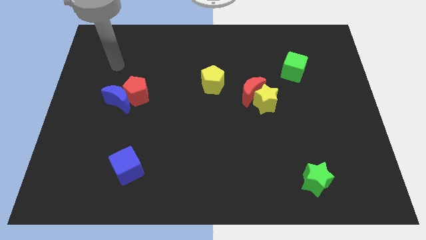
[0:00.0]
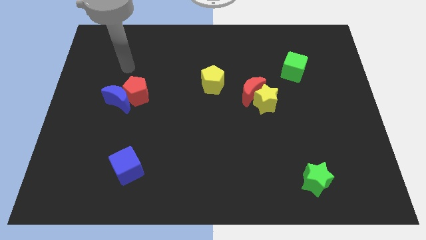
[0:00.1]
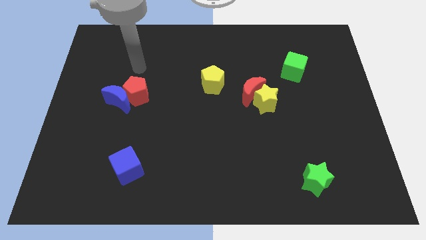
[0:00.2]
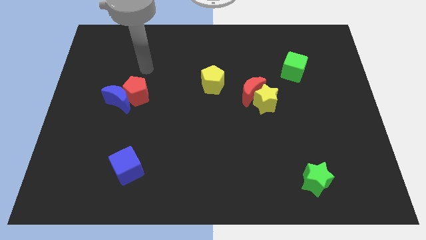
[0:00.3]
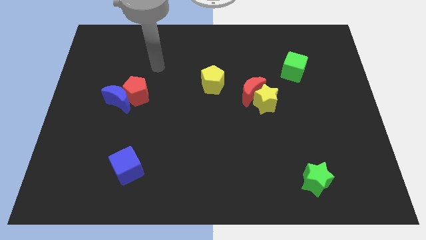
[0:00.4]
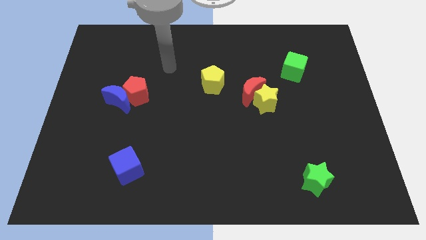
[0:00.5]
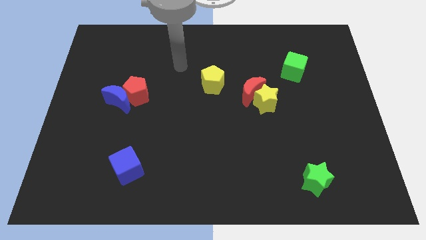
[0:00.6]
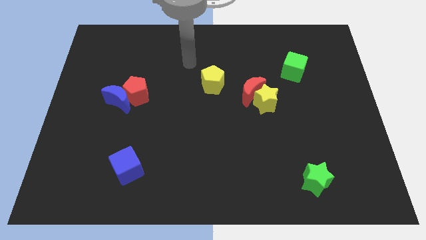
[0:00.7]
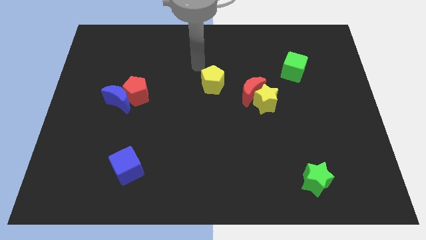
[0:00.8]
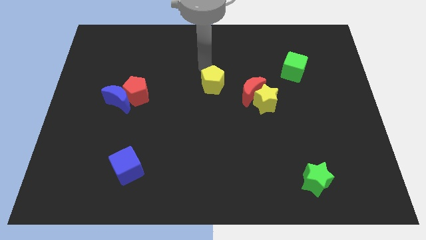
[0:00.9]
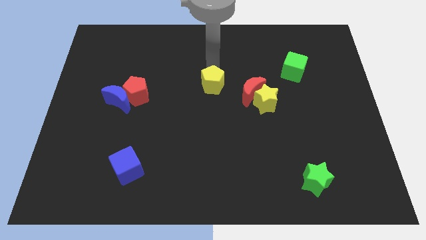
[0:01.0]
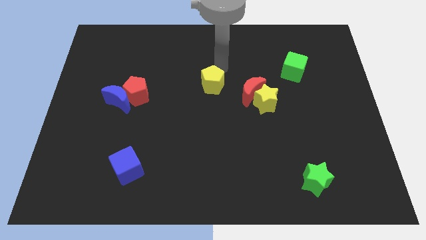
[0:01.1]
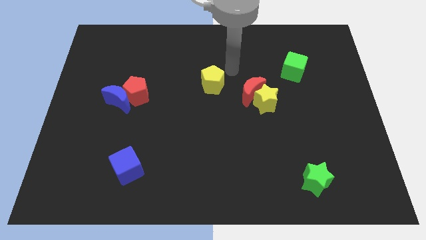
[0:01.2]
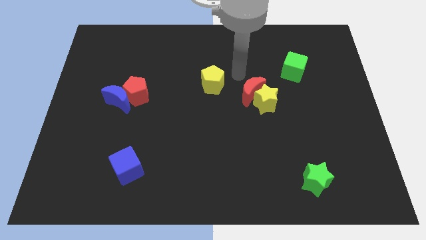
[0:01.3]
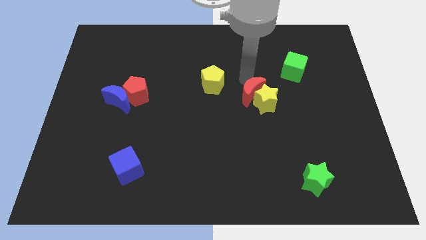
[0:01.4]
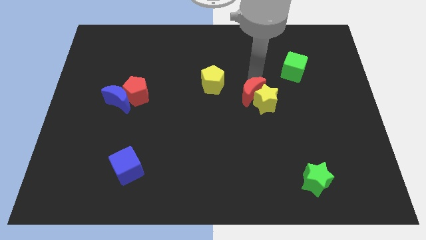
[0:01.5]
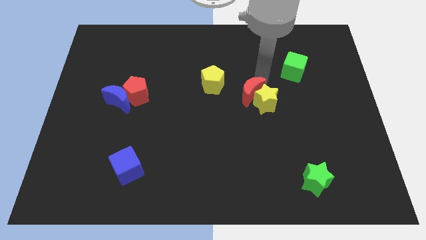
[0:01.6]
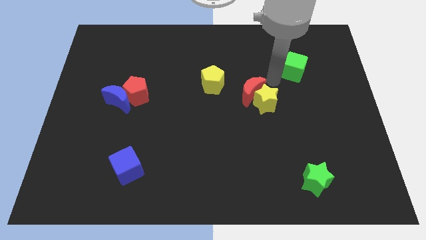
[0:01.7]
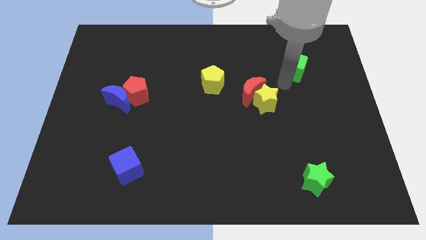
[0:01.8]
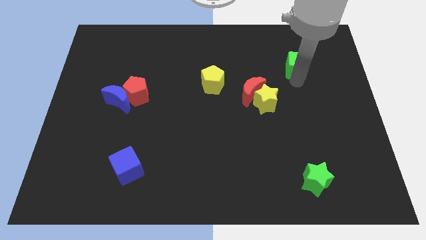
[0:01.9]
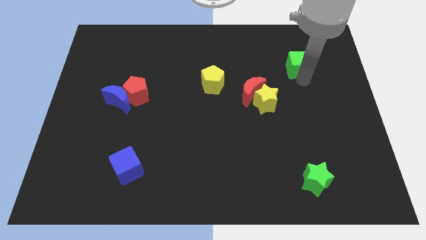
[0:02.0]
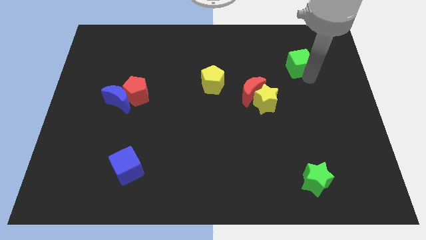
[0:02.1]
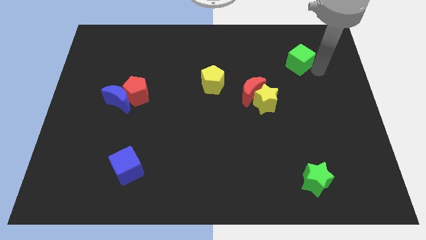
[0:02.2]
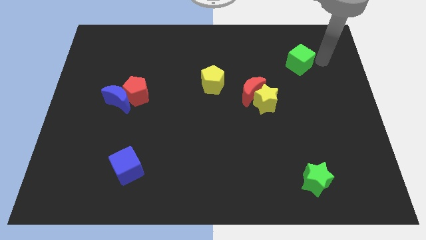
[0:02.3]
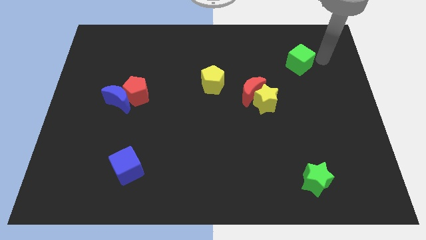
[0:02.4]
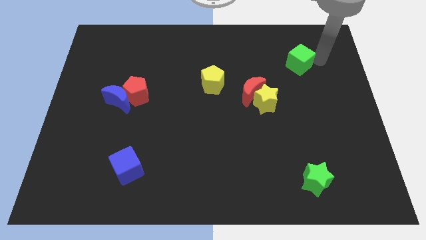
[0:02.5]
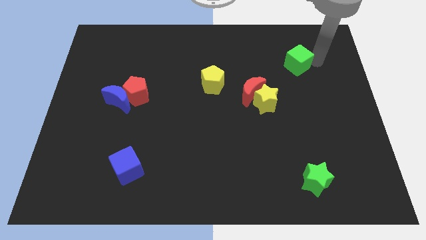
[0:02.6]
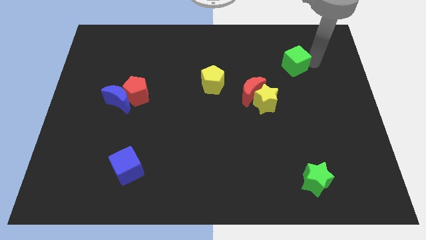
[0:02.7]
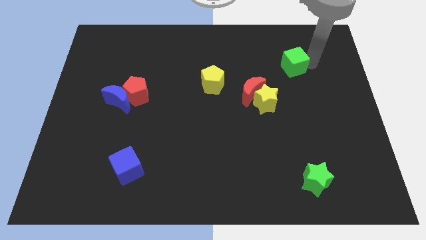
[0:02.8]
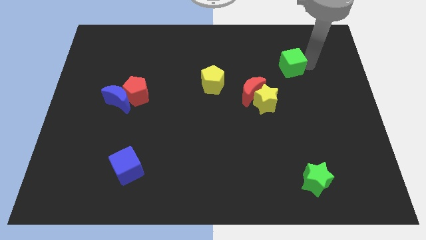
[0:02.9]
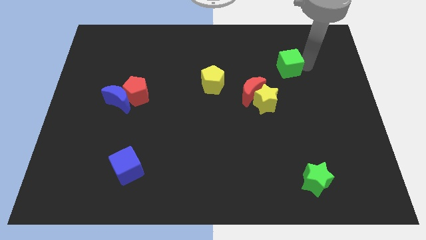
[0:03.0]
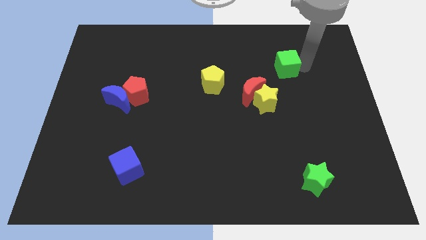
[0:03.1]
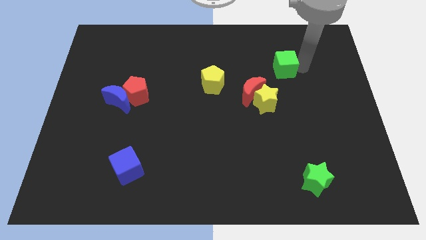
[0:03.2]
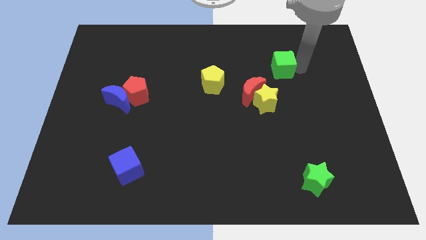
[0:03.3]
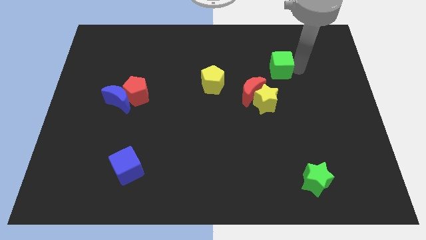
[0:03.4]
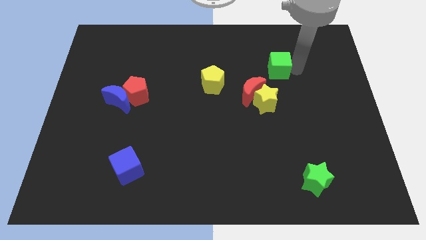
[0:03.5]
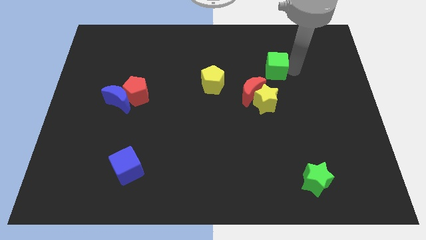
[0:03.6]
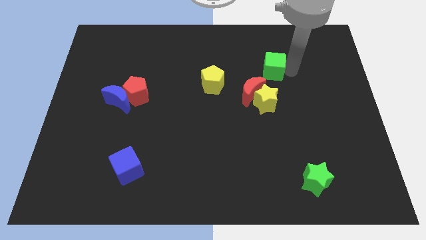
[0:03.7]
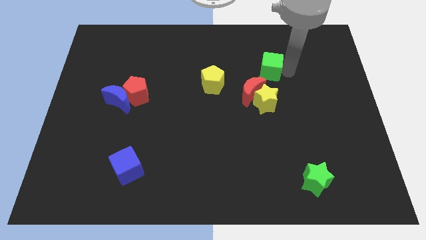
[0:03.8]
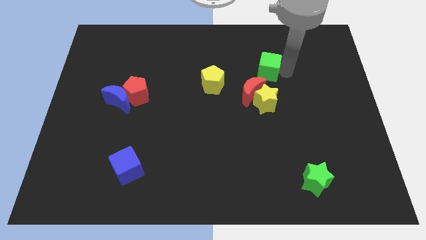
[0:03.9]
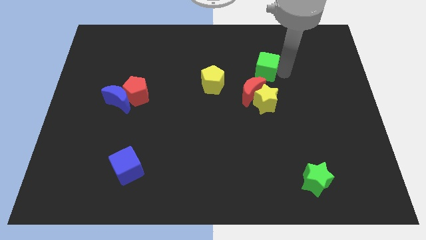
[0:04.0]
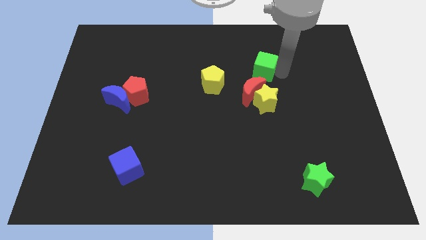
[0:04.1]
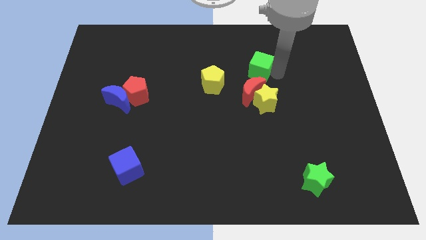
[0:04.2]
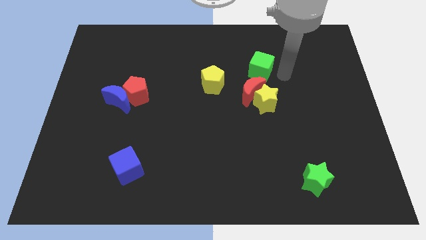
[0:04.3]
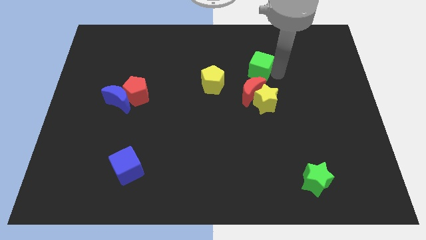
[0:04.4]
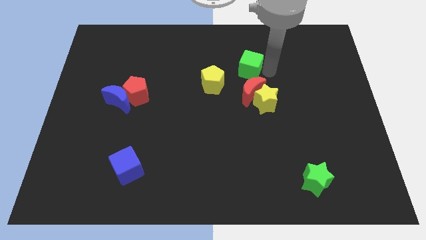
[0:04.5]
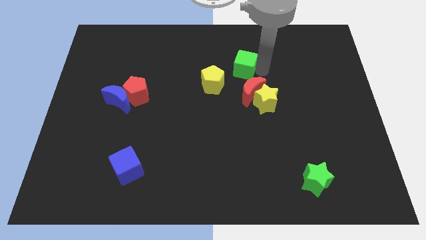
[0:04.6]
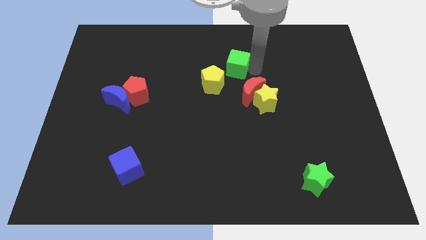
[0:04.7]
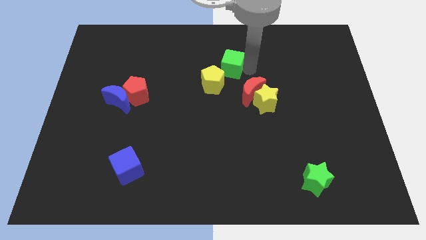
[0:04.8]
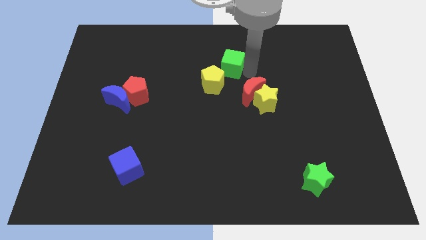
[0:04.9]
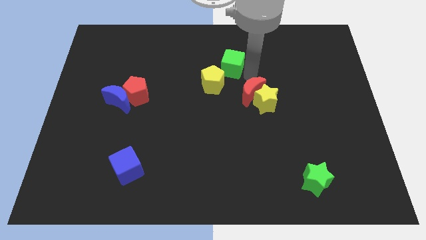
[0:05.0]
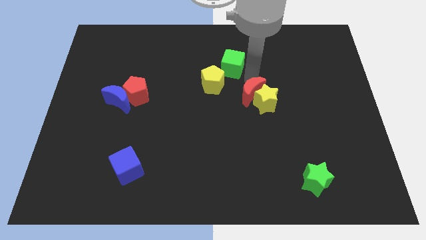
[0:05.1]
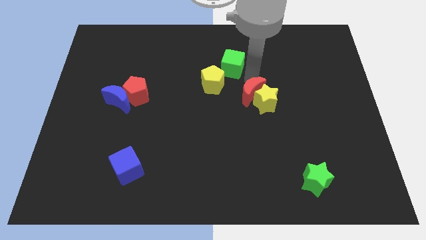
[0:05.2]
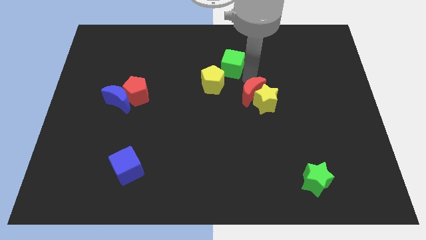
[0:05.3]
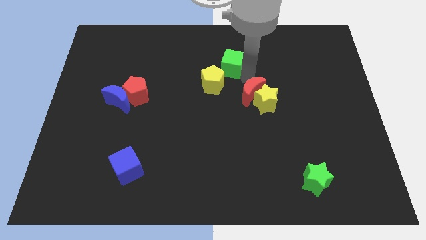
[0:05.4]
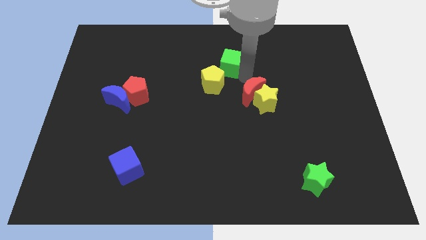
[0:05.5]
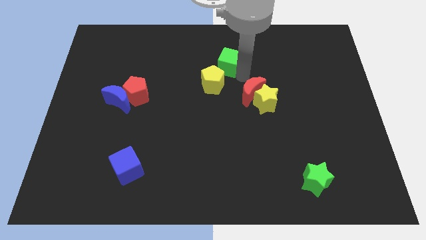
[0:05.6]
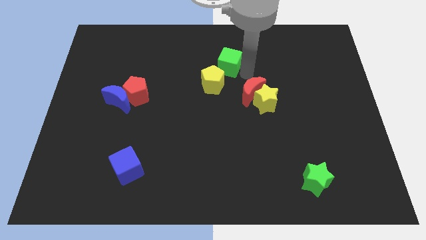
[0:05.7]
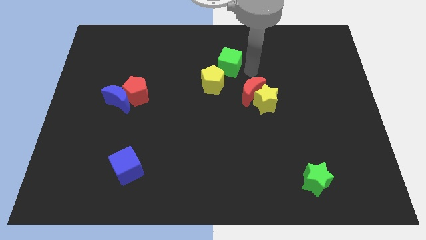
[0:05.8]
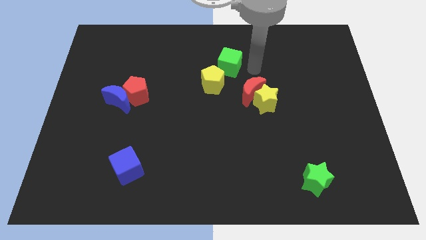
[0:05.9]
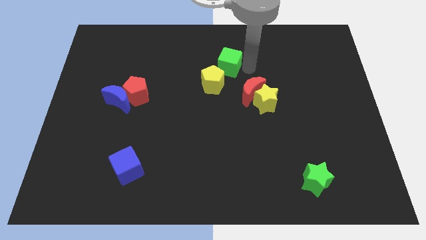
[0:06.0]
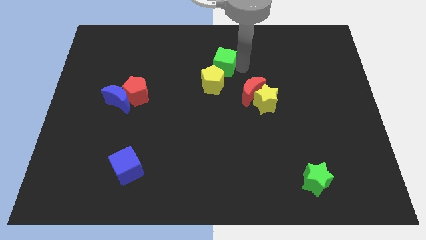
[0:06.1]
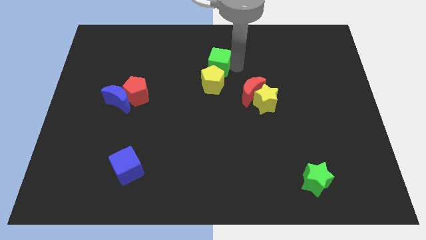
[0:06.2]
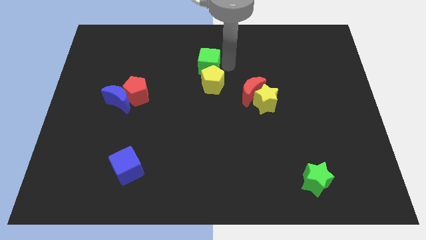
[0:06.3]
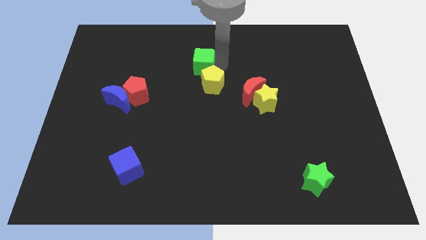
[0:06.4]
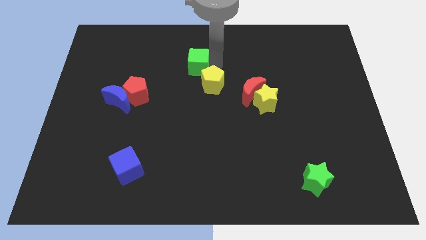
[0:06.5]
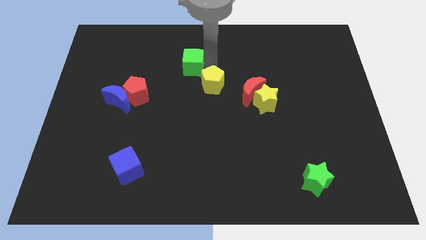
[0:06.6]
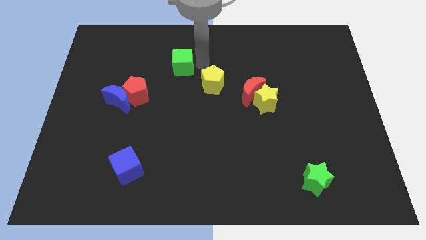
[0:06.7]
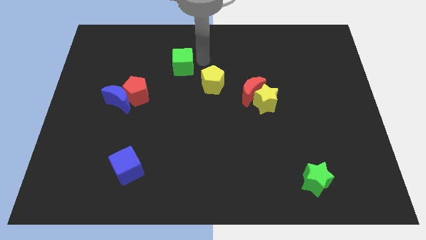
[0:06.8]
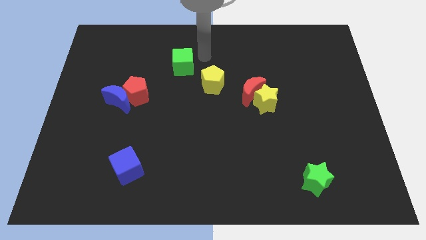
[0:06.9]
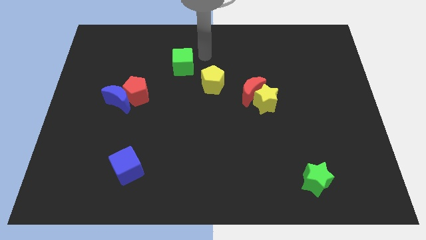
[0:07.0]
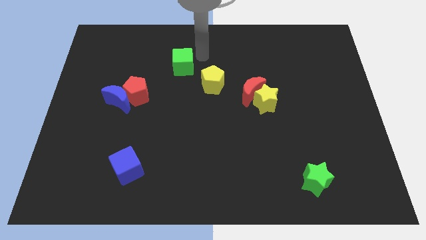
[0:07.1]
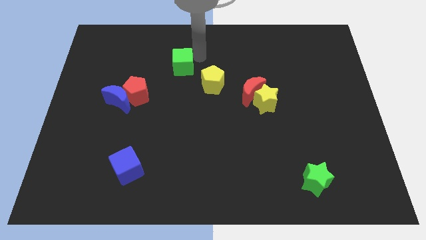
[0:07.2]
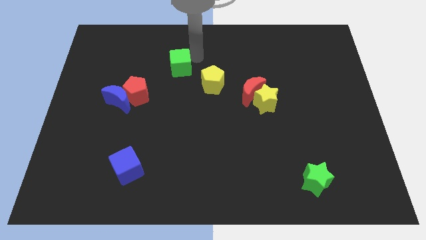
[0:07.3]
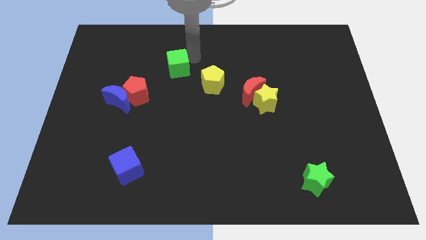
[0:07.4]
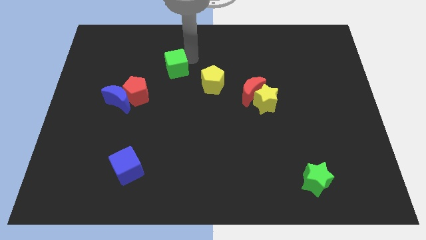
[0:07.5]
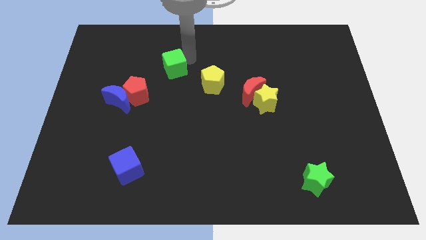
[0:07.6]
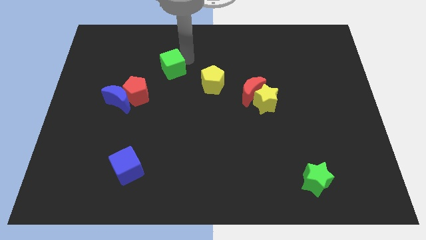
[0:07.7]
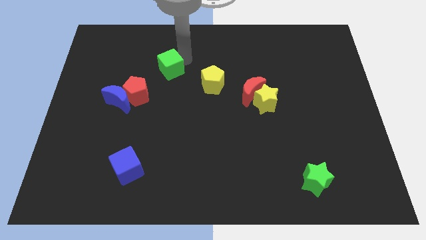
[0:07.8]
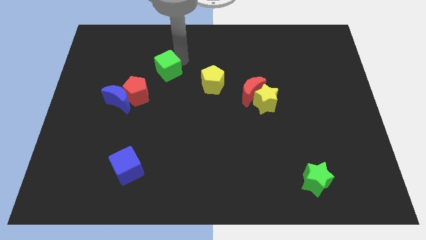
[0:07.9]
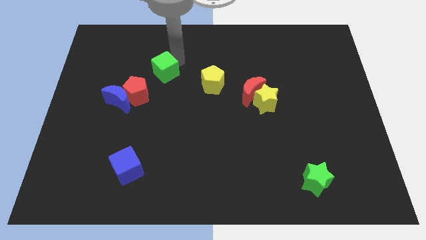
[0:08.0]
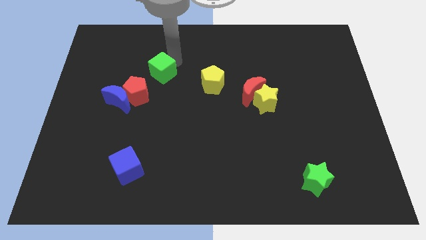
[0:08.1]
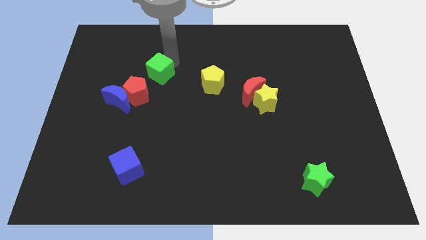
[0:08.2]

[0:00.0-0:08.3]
put the green cube to the top right of the blue moon

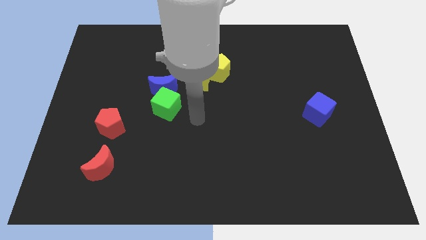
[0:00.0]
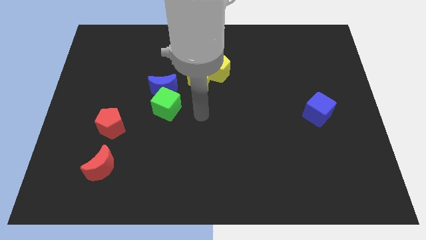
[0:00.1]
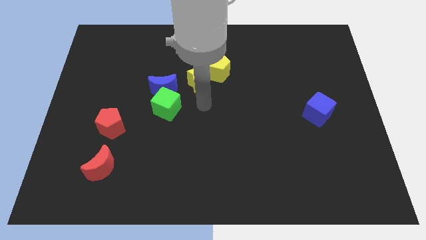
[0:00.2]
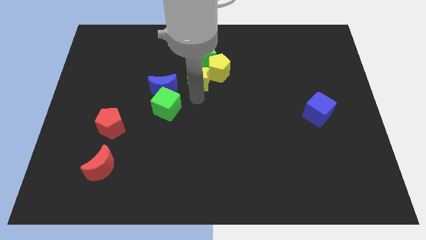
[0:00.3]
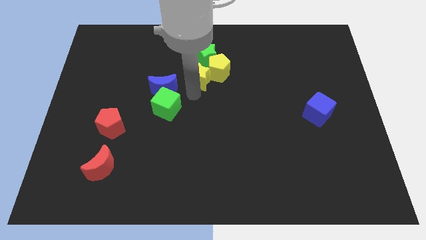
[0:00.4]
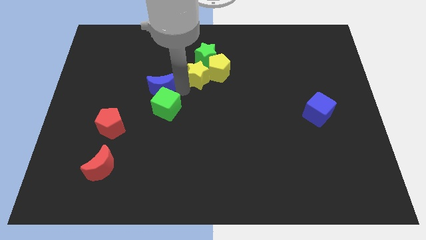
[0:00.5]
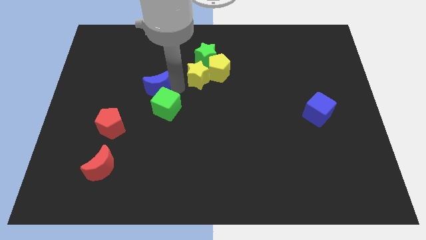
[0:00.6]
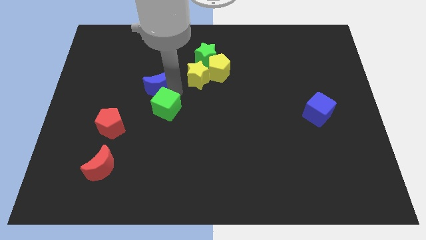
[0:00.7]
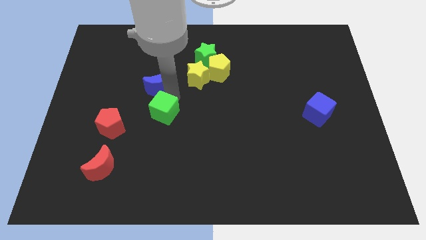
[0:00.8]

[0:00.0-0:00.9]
slide the green cube just right of the red pentagon
